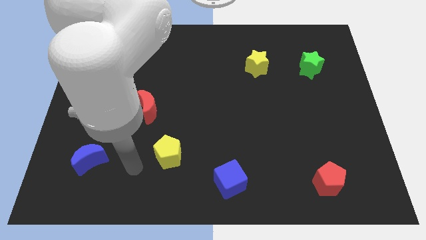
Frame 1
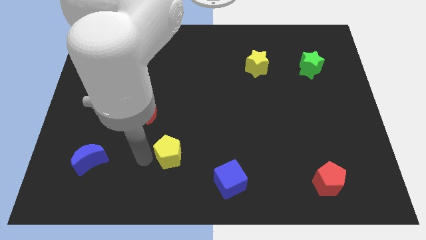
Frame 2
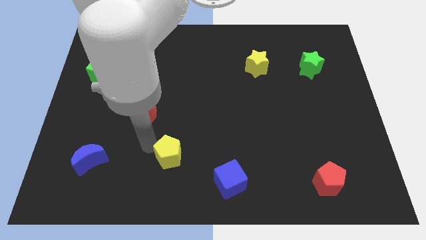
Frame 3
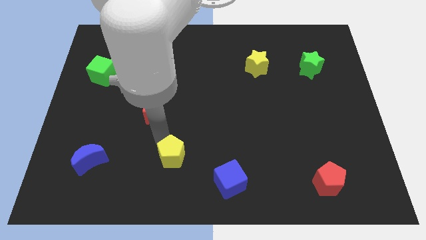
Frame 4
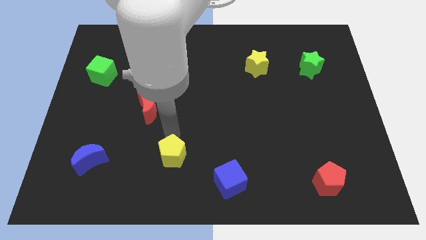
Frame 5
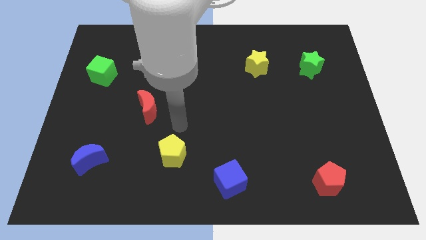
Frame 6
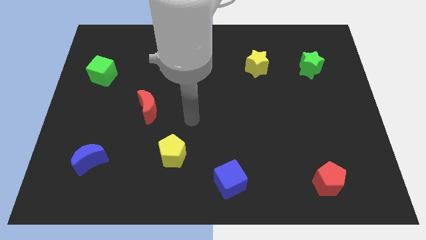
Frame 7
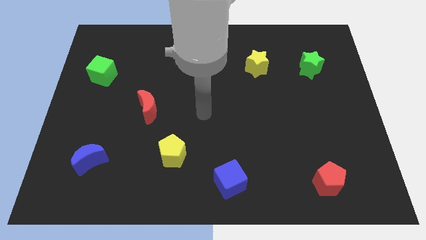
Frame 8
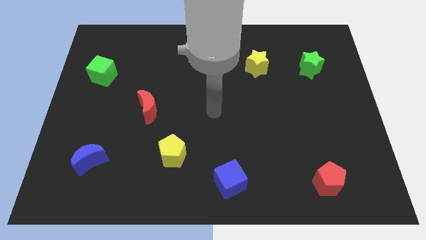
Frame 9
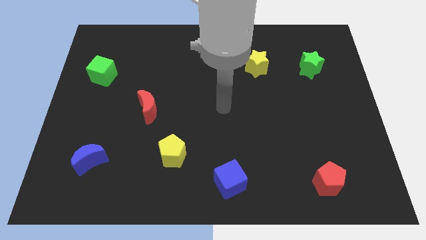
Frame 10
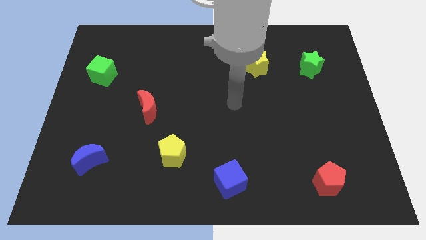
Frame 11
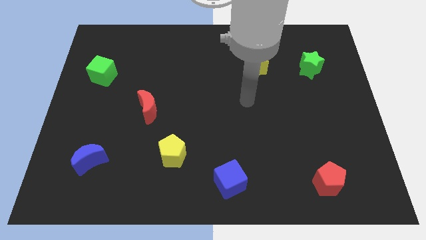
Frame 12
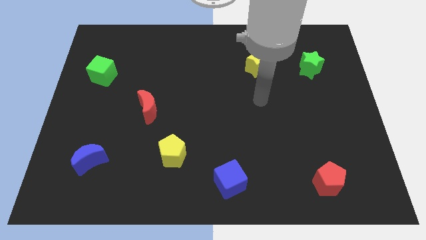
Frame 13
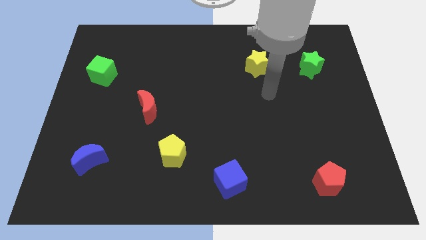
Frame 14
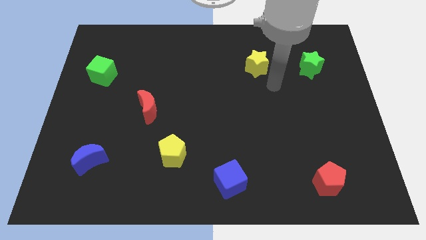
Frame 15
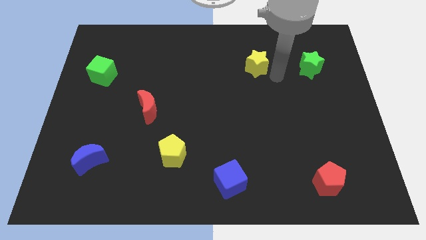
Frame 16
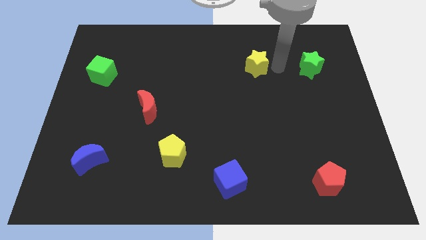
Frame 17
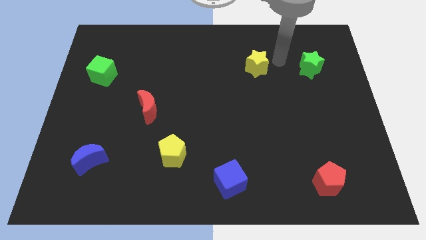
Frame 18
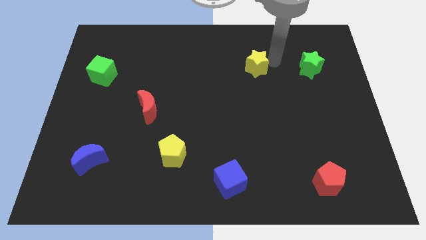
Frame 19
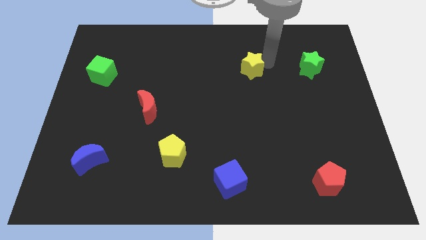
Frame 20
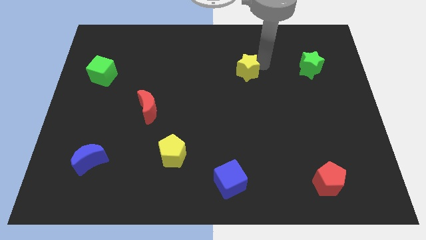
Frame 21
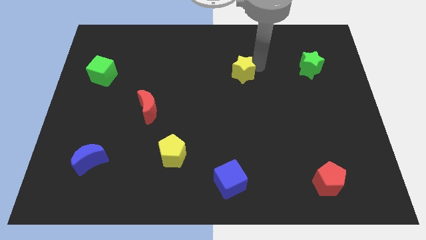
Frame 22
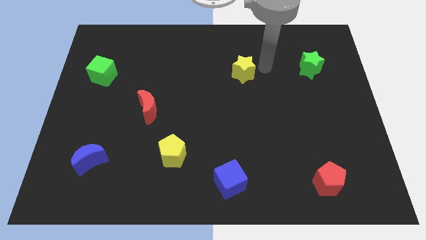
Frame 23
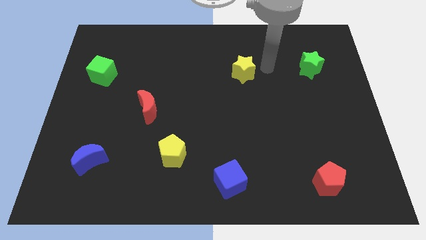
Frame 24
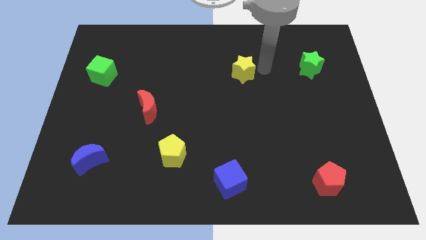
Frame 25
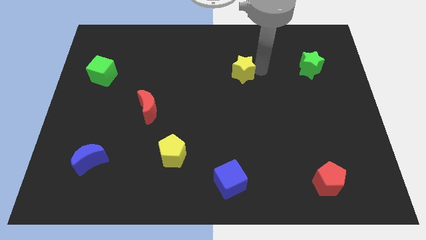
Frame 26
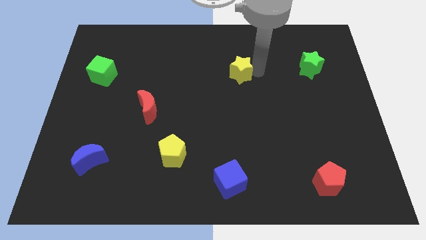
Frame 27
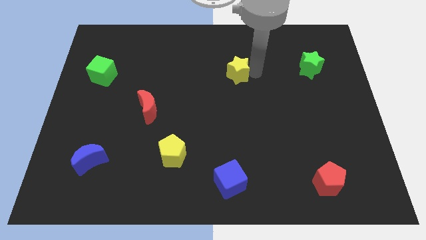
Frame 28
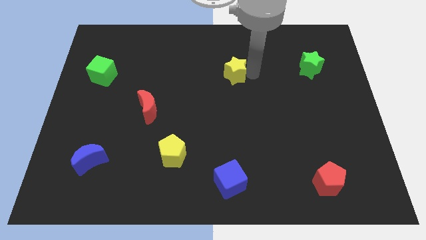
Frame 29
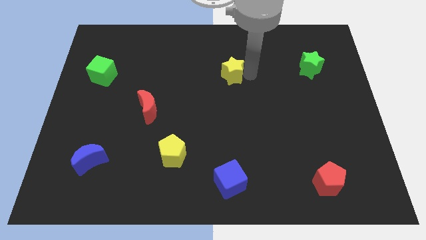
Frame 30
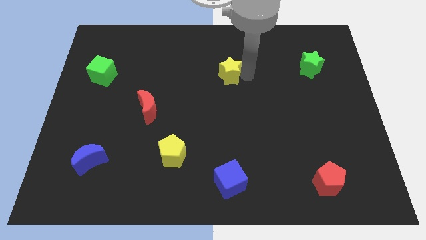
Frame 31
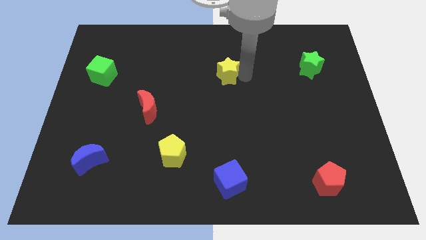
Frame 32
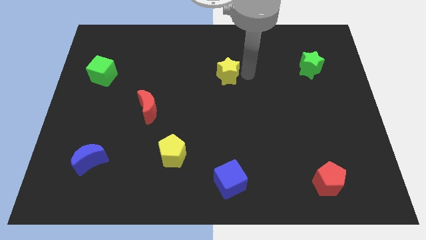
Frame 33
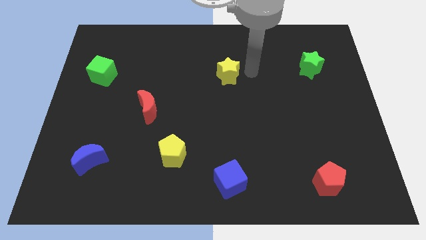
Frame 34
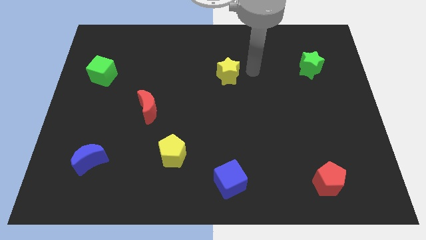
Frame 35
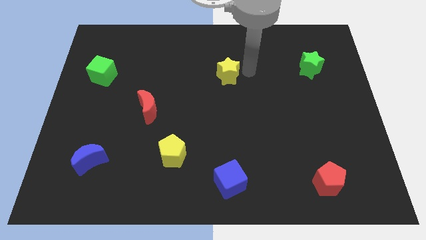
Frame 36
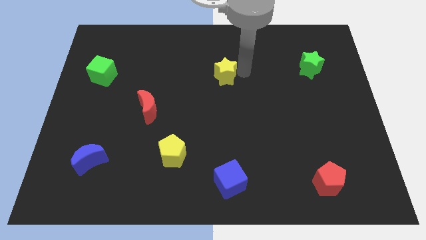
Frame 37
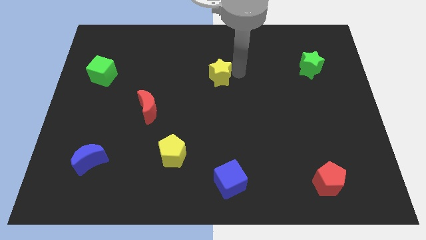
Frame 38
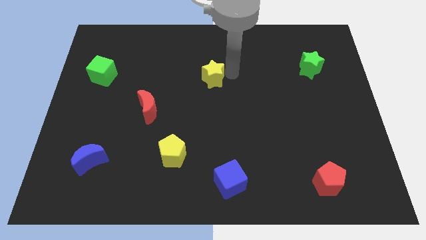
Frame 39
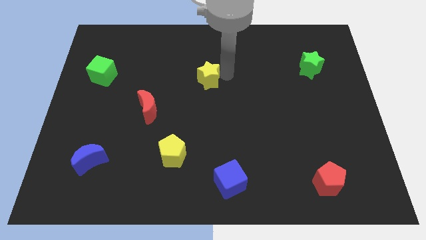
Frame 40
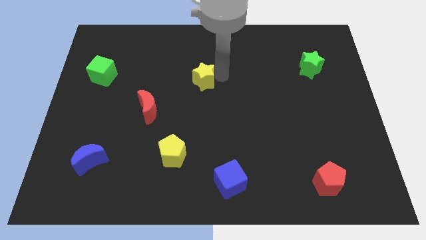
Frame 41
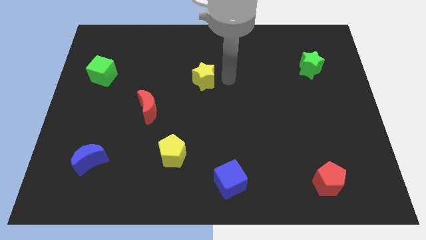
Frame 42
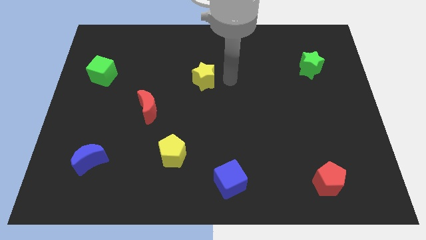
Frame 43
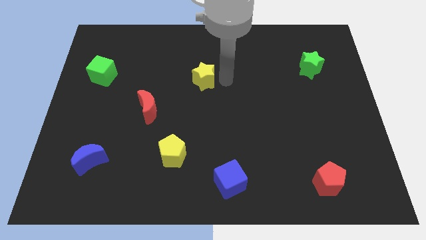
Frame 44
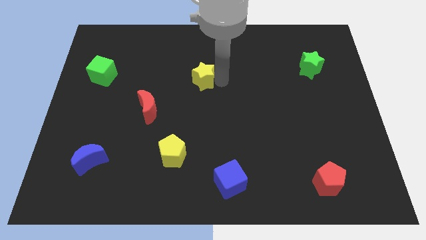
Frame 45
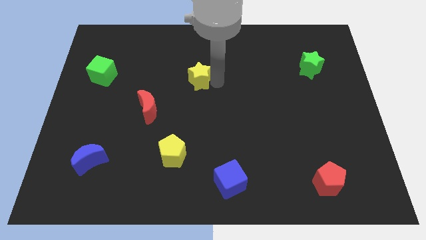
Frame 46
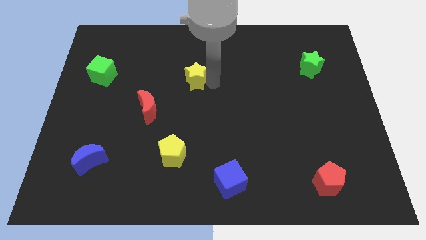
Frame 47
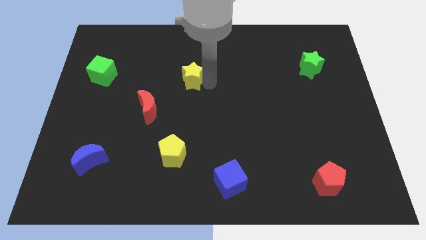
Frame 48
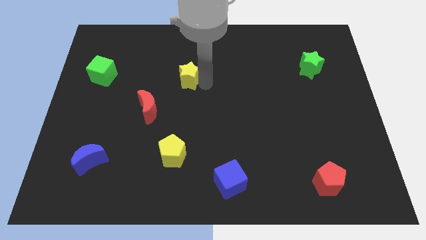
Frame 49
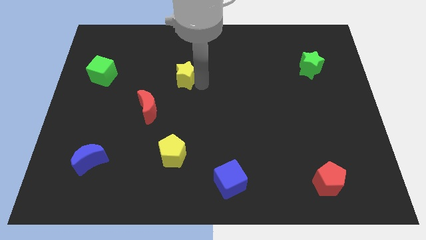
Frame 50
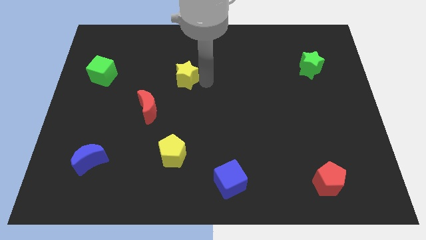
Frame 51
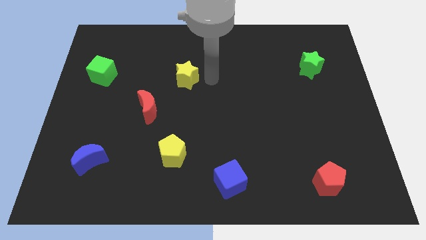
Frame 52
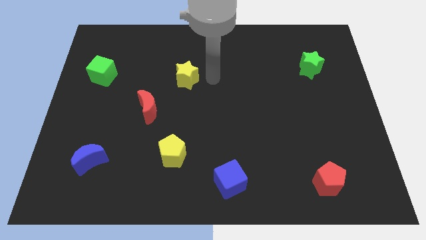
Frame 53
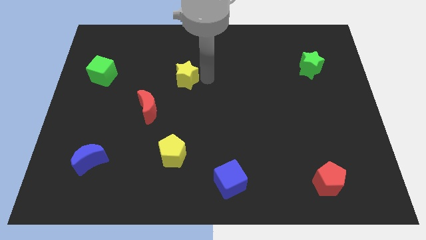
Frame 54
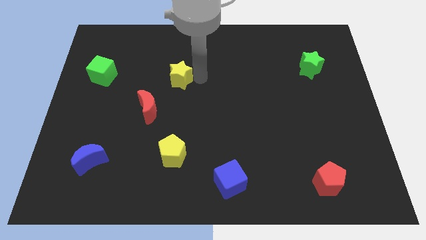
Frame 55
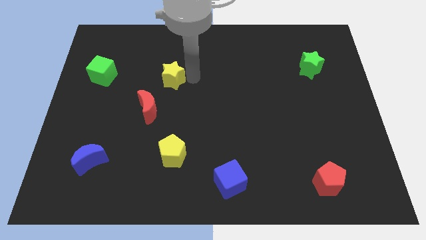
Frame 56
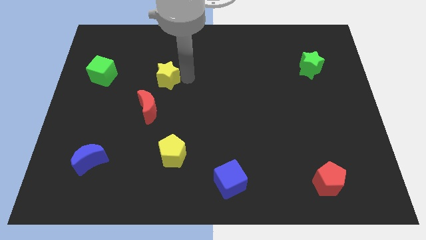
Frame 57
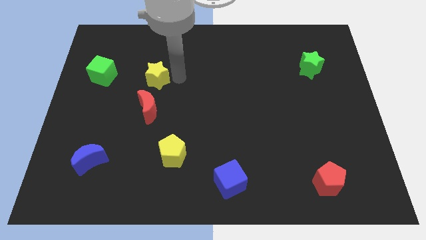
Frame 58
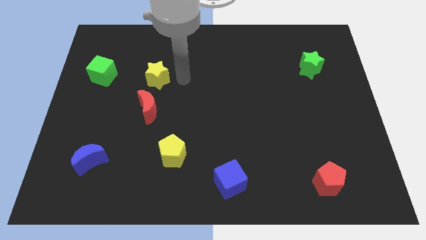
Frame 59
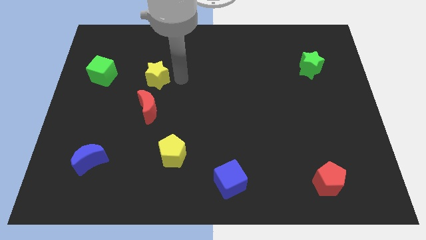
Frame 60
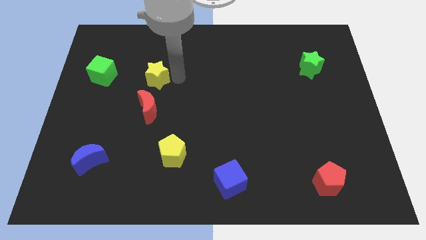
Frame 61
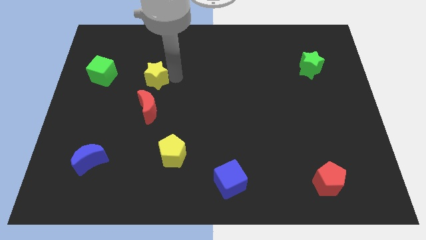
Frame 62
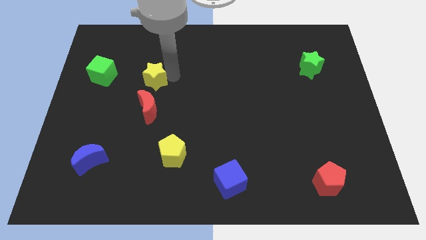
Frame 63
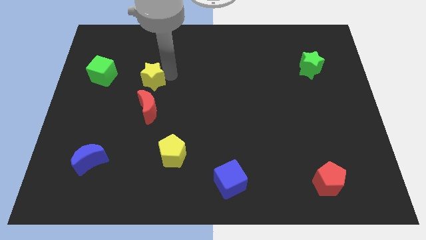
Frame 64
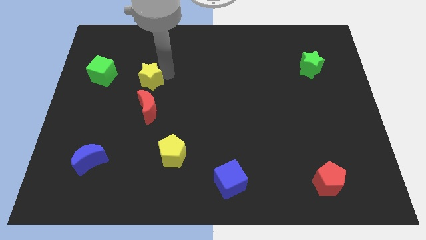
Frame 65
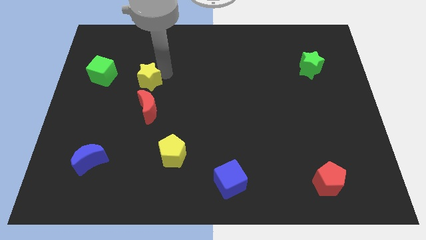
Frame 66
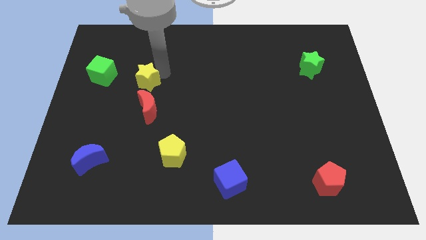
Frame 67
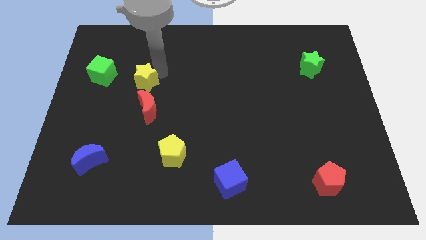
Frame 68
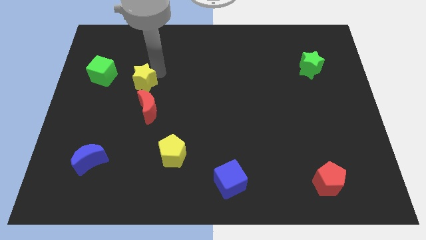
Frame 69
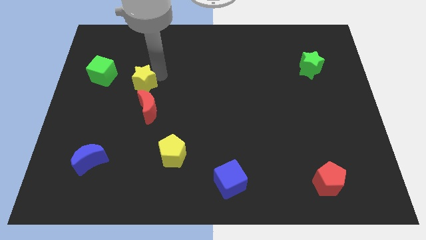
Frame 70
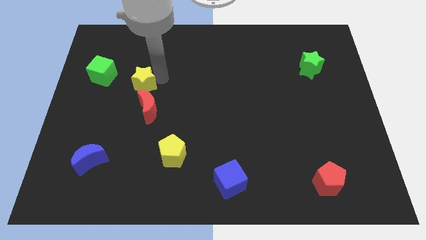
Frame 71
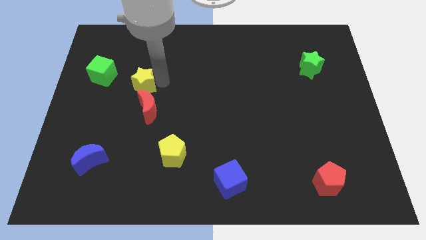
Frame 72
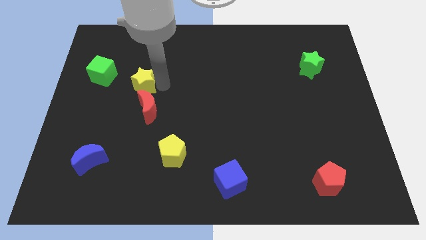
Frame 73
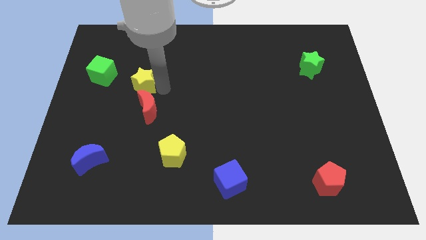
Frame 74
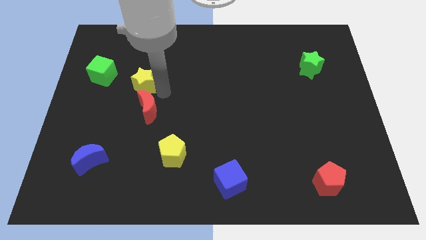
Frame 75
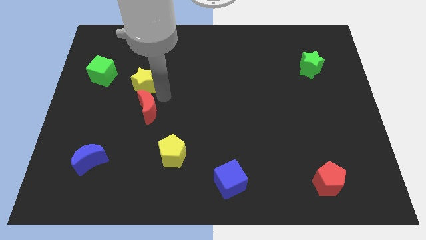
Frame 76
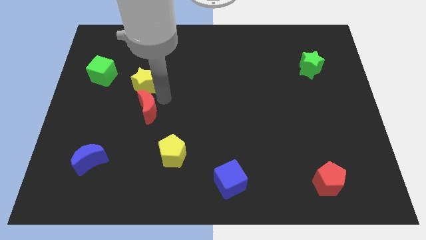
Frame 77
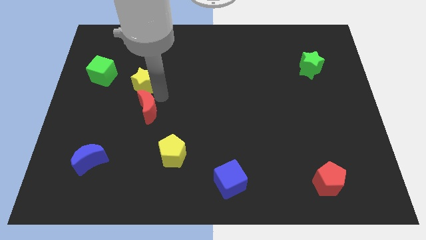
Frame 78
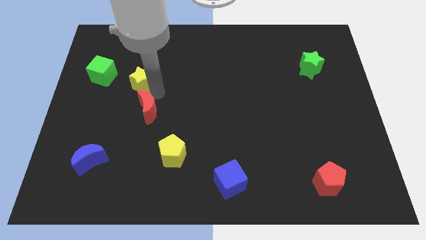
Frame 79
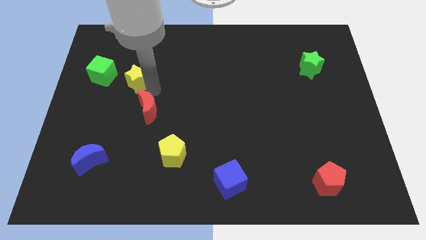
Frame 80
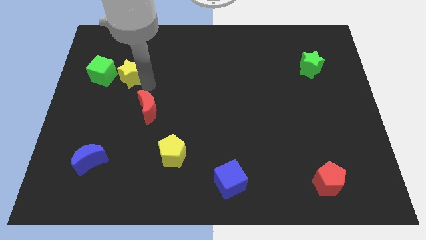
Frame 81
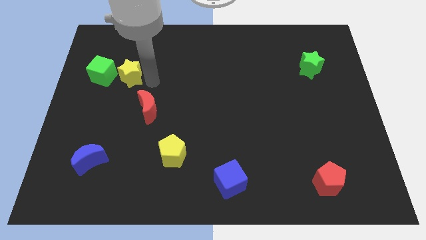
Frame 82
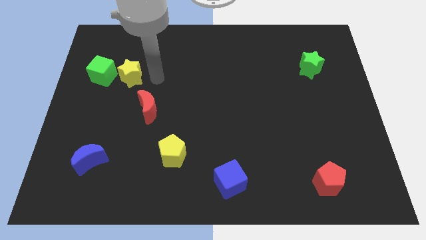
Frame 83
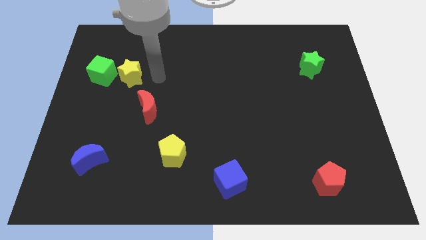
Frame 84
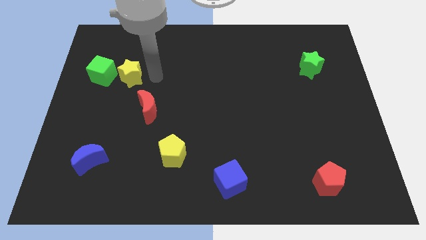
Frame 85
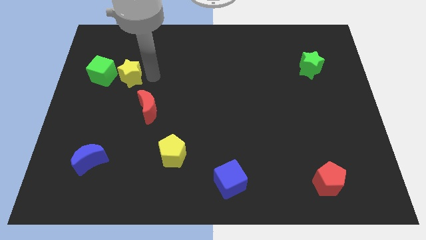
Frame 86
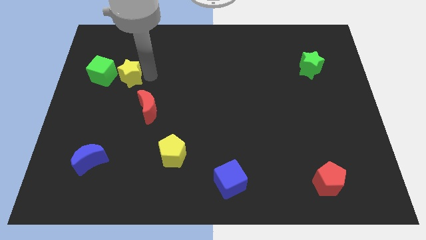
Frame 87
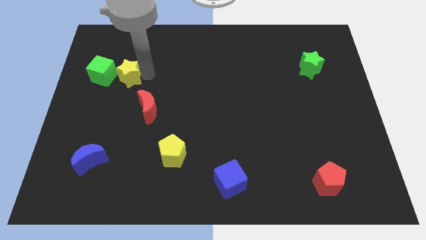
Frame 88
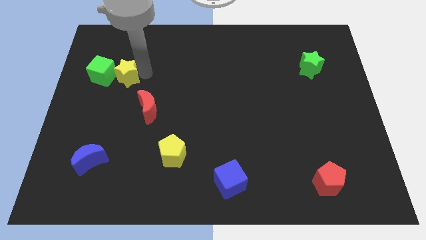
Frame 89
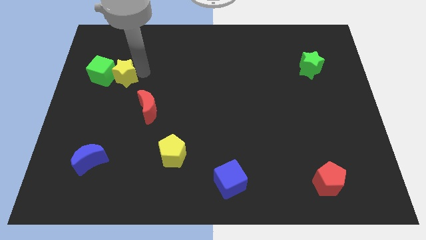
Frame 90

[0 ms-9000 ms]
put the yellow star to the green cube
